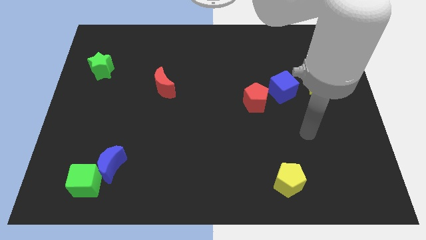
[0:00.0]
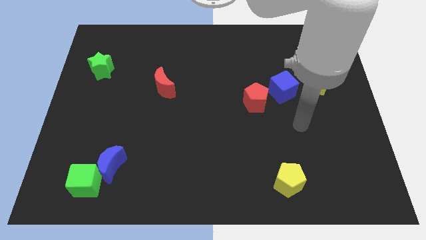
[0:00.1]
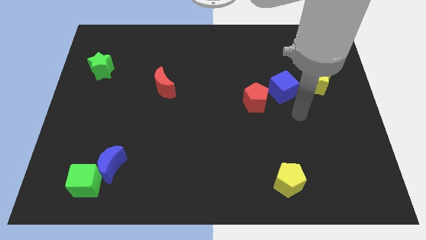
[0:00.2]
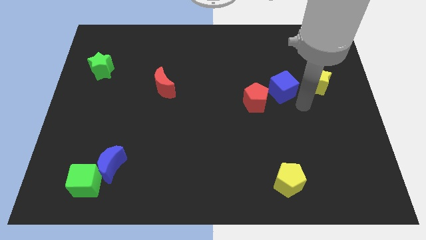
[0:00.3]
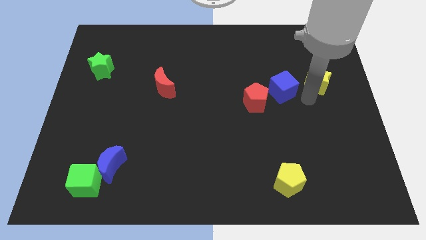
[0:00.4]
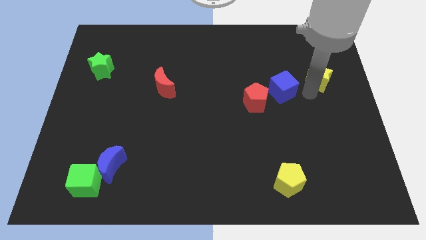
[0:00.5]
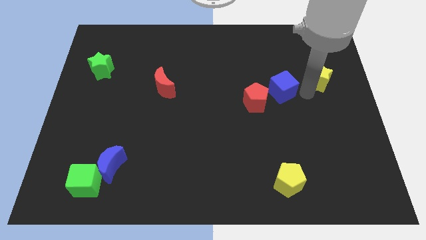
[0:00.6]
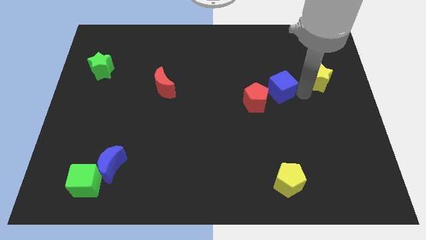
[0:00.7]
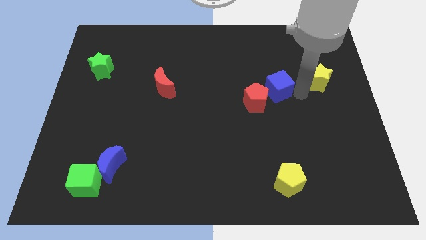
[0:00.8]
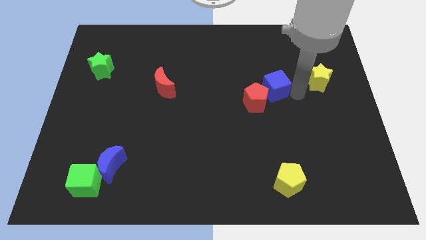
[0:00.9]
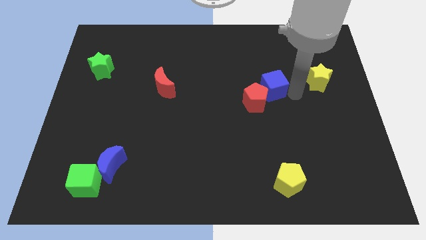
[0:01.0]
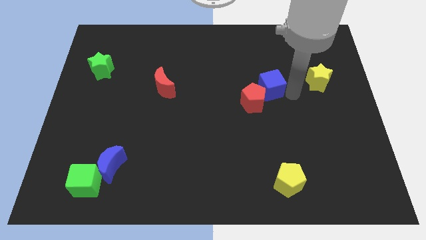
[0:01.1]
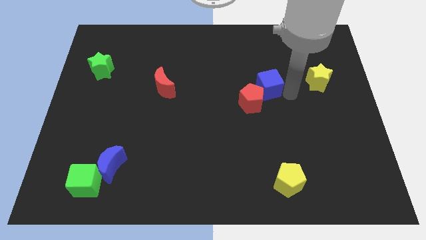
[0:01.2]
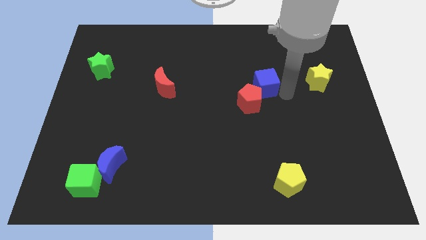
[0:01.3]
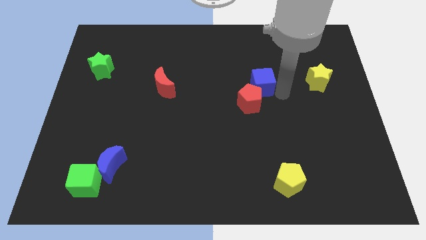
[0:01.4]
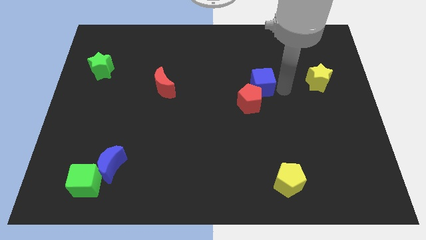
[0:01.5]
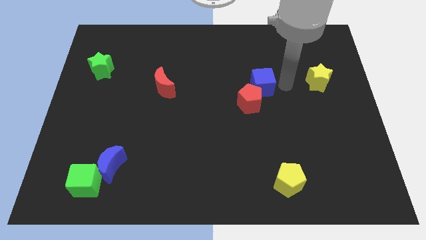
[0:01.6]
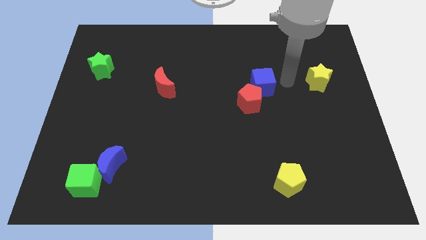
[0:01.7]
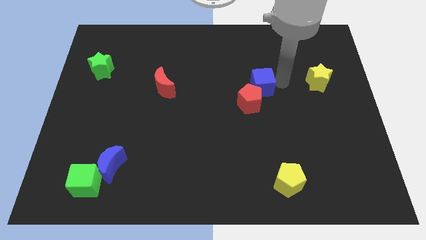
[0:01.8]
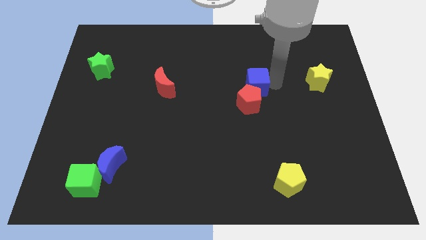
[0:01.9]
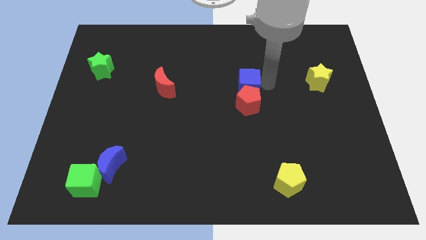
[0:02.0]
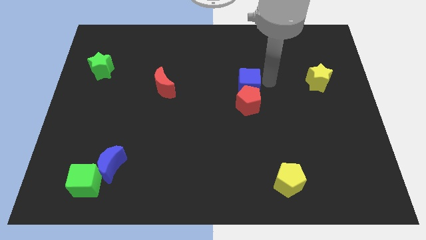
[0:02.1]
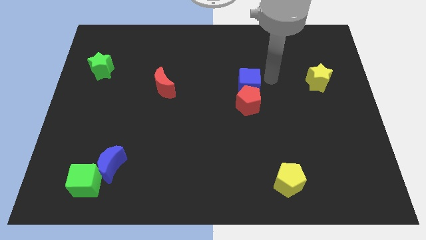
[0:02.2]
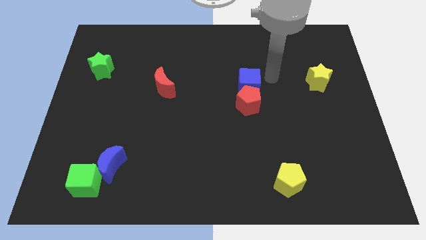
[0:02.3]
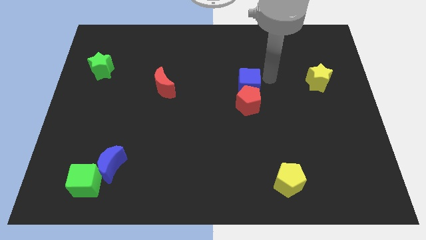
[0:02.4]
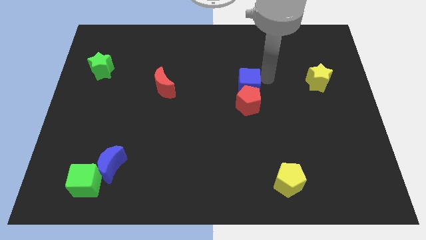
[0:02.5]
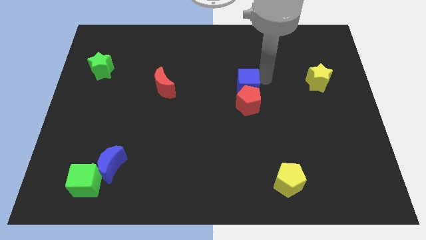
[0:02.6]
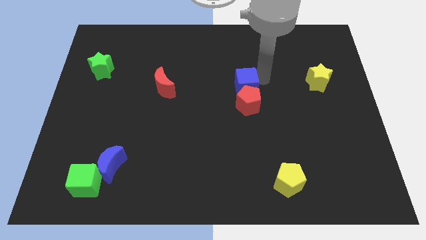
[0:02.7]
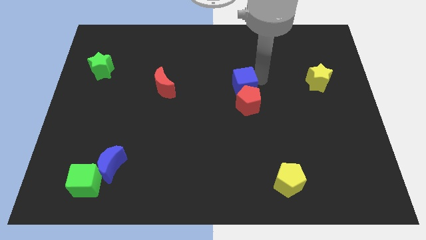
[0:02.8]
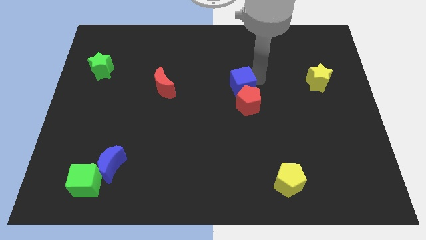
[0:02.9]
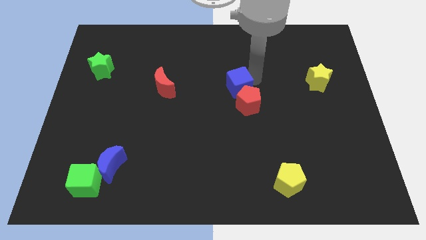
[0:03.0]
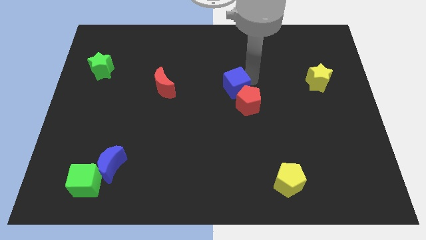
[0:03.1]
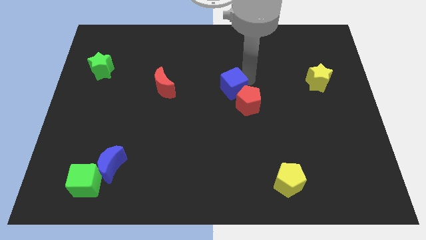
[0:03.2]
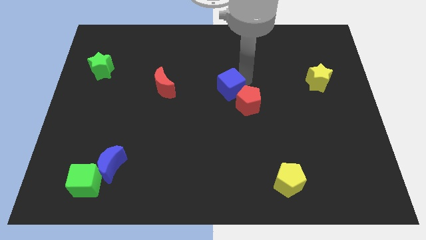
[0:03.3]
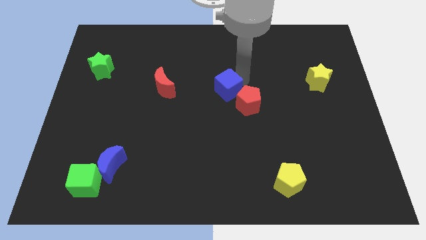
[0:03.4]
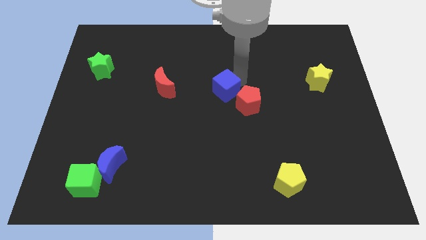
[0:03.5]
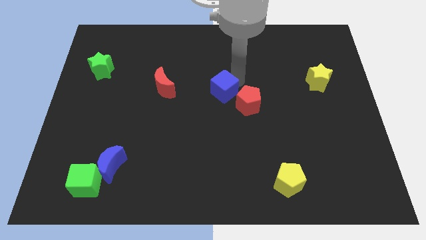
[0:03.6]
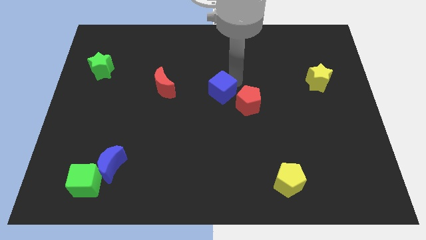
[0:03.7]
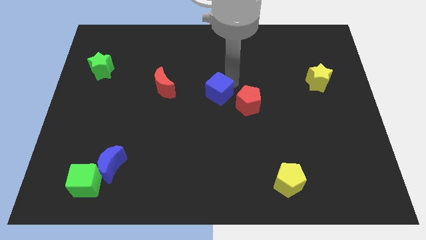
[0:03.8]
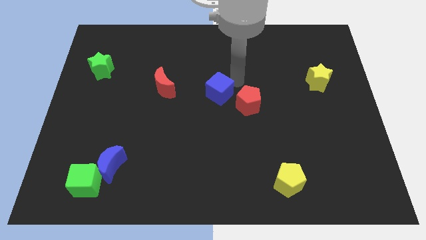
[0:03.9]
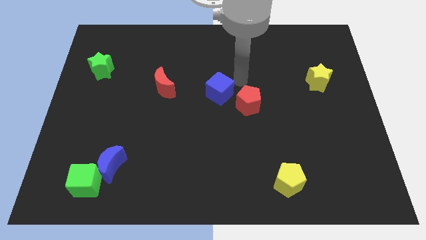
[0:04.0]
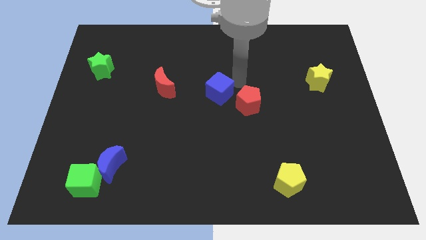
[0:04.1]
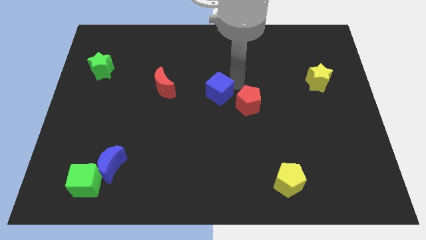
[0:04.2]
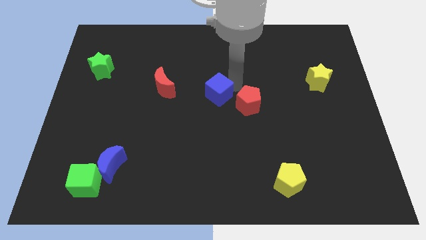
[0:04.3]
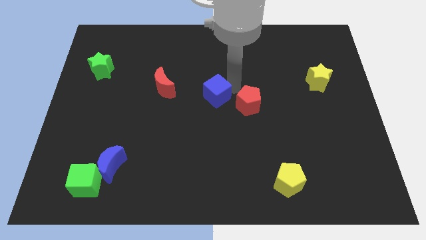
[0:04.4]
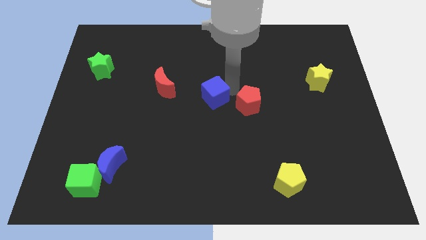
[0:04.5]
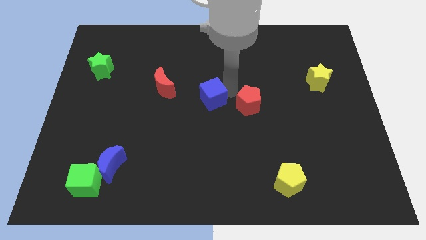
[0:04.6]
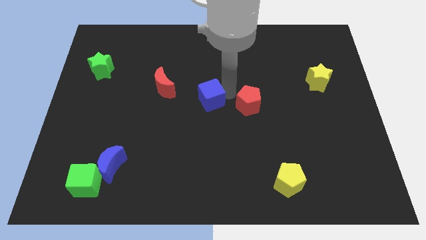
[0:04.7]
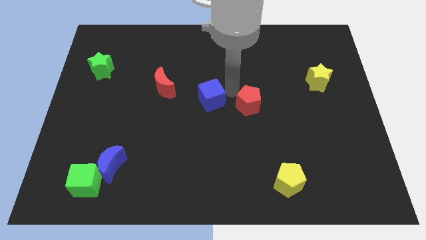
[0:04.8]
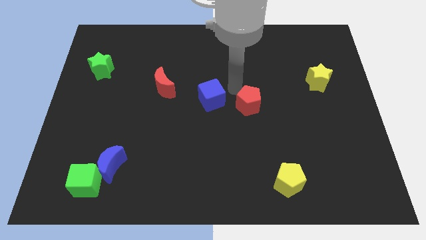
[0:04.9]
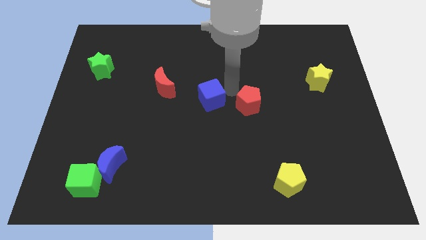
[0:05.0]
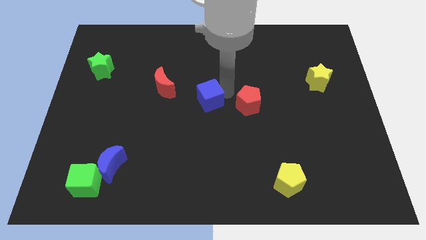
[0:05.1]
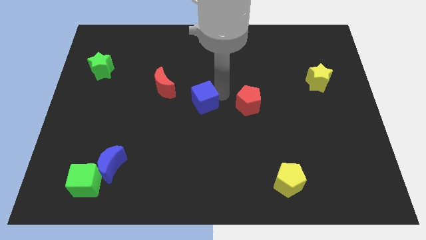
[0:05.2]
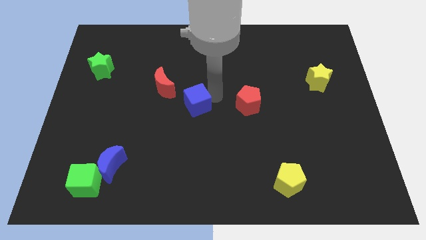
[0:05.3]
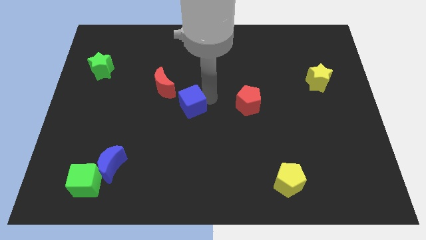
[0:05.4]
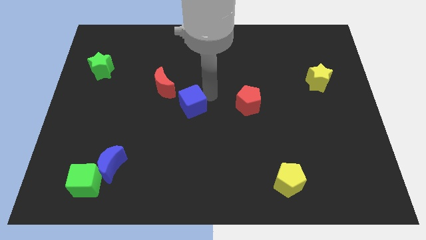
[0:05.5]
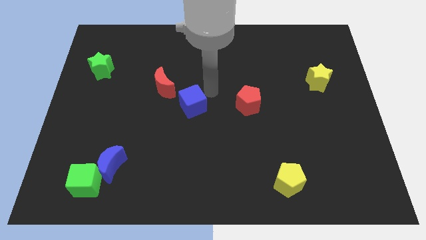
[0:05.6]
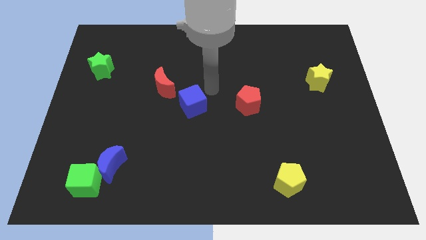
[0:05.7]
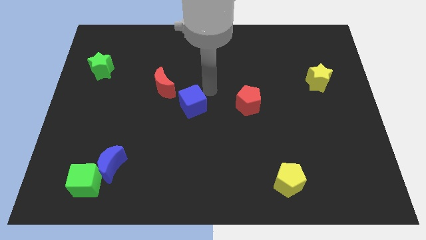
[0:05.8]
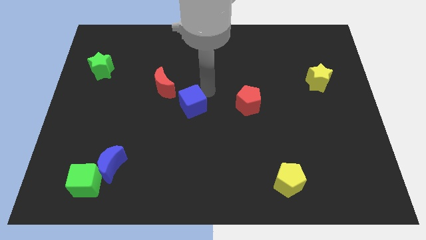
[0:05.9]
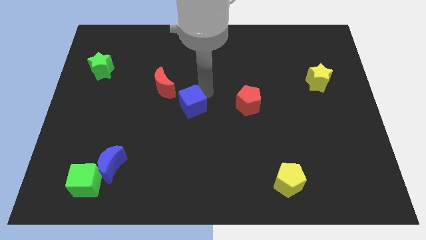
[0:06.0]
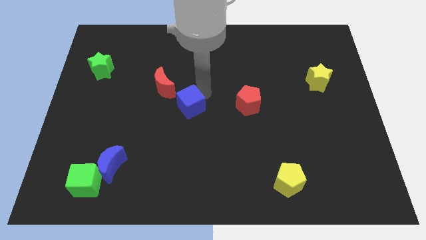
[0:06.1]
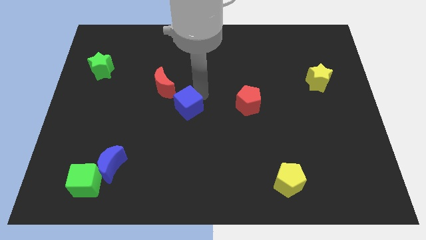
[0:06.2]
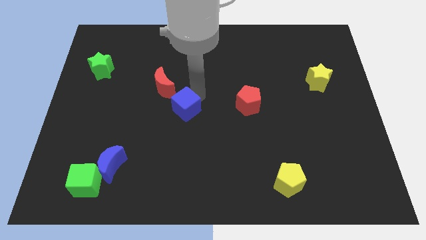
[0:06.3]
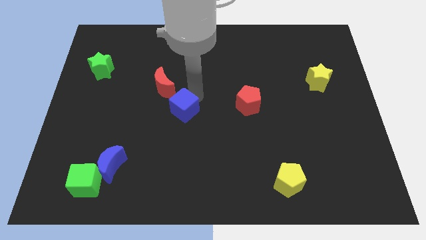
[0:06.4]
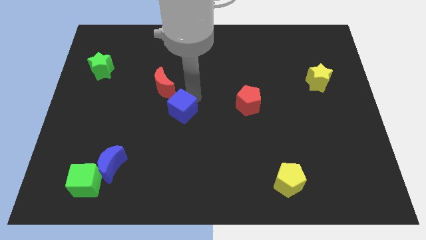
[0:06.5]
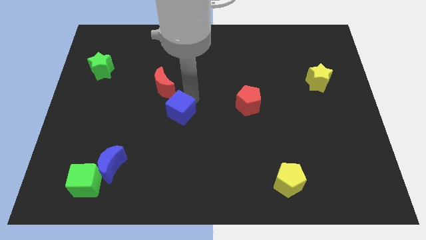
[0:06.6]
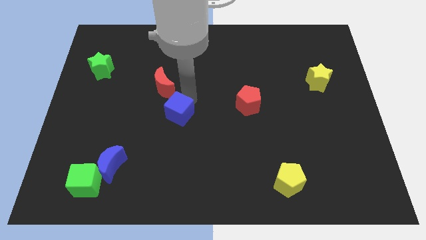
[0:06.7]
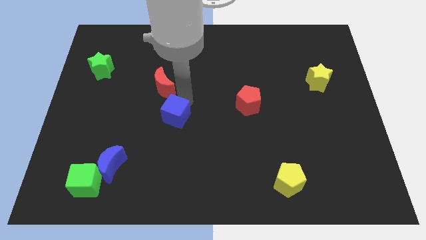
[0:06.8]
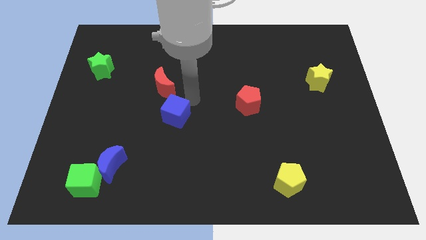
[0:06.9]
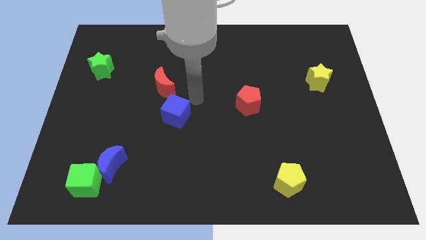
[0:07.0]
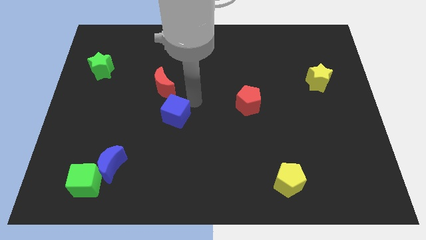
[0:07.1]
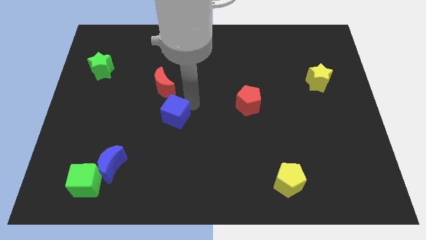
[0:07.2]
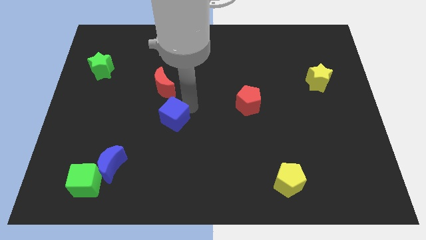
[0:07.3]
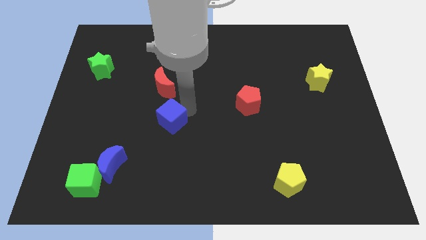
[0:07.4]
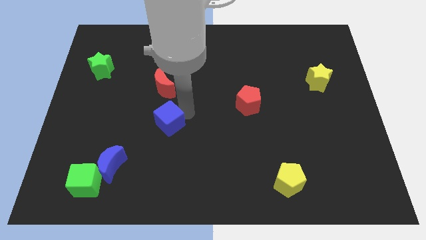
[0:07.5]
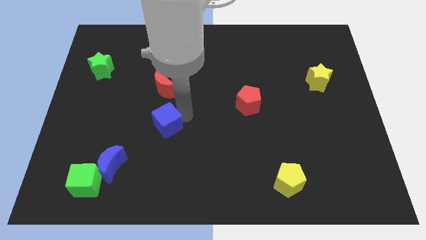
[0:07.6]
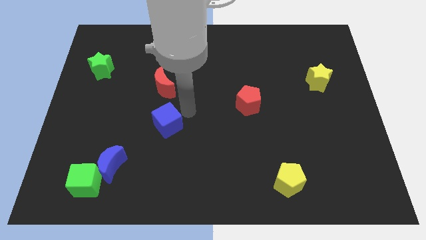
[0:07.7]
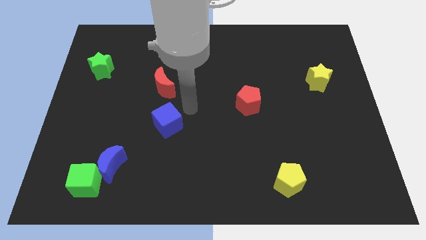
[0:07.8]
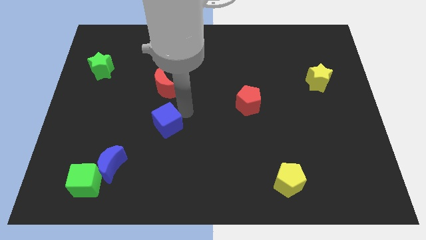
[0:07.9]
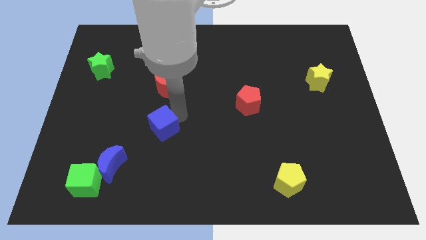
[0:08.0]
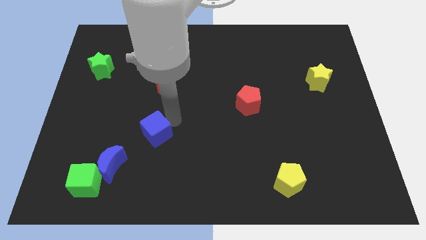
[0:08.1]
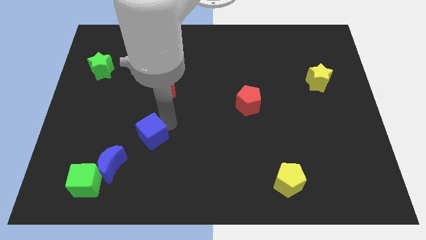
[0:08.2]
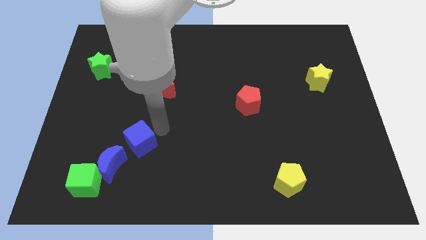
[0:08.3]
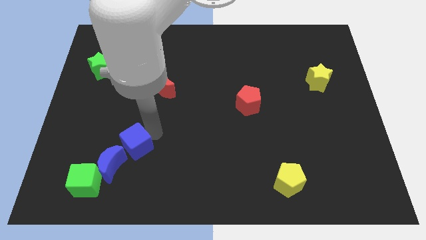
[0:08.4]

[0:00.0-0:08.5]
push the blue cube to the top right side of the green cube
